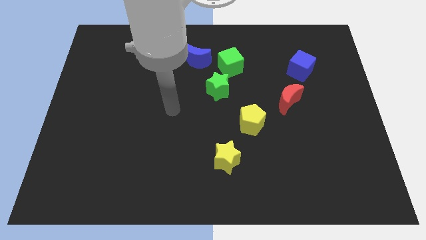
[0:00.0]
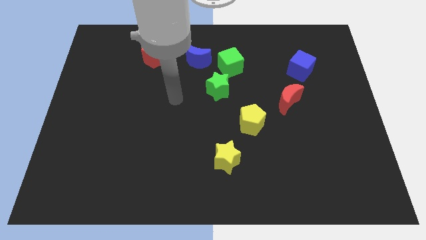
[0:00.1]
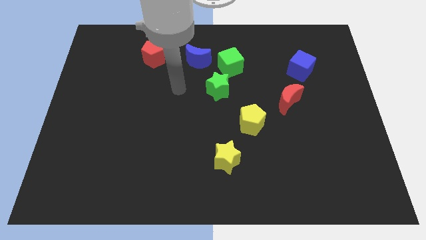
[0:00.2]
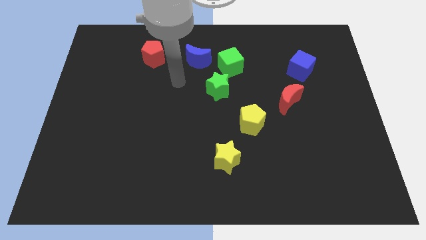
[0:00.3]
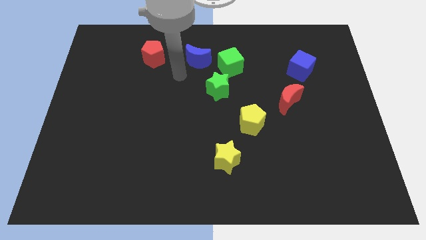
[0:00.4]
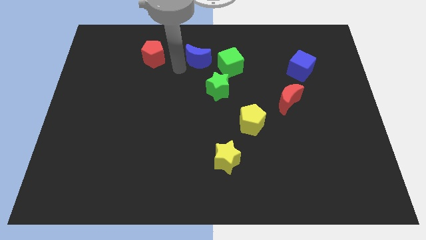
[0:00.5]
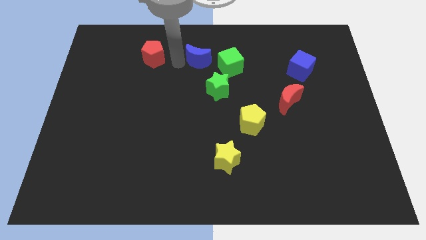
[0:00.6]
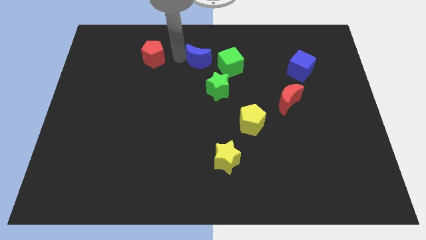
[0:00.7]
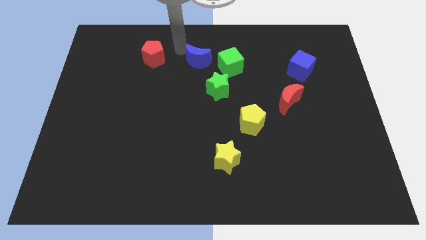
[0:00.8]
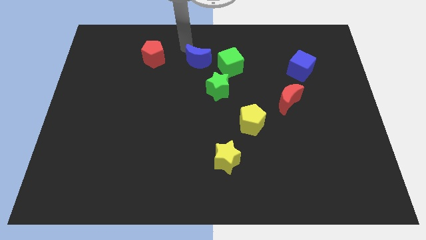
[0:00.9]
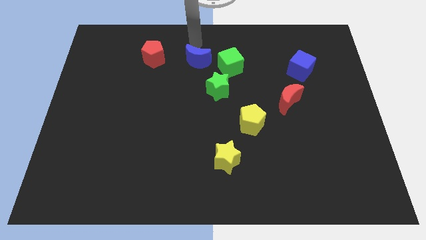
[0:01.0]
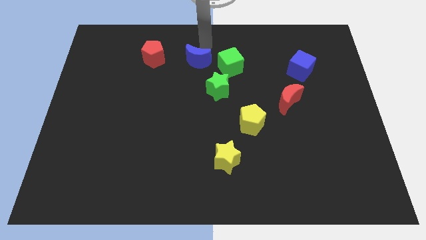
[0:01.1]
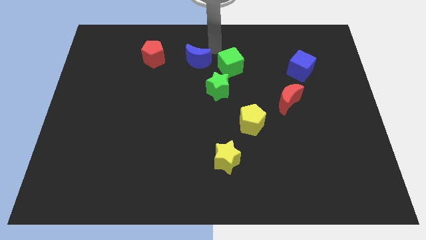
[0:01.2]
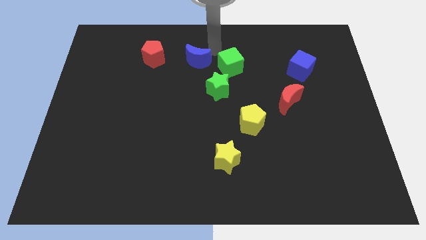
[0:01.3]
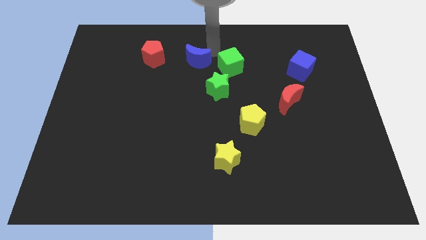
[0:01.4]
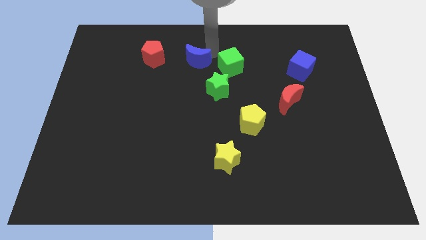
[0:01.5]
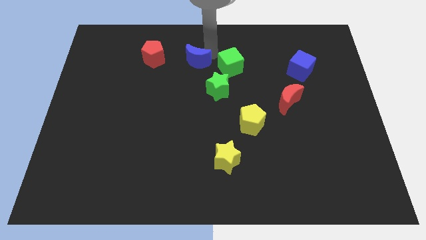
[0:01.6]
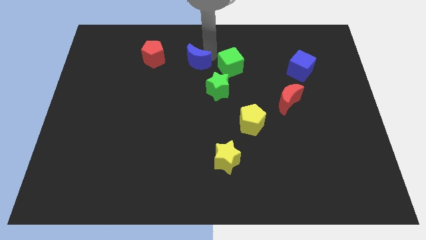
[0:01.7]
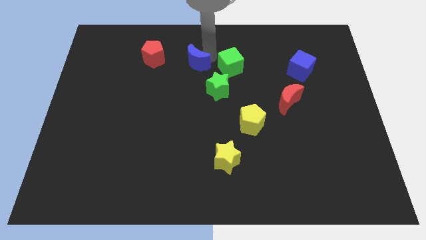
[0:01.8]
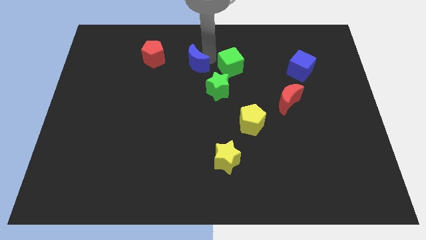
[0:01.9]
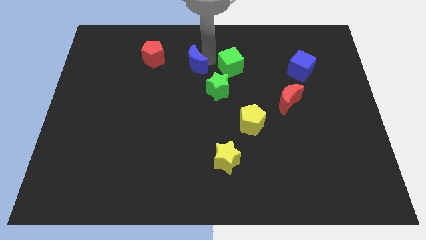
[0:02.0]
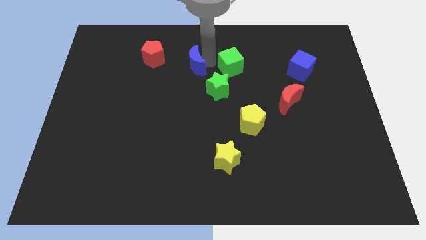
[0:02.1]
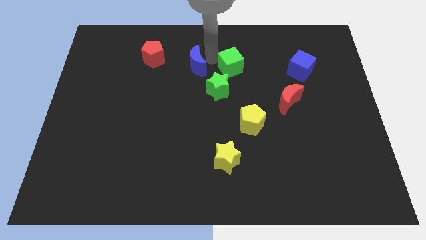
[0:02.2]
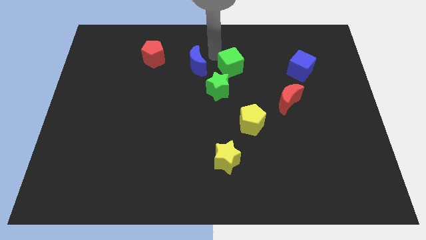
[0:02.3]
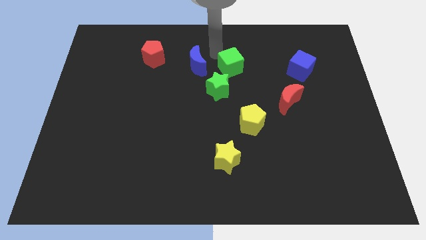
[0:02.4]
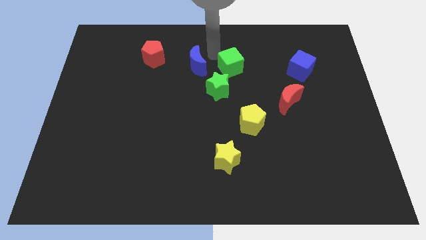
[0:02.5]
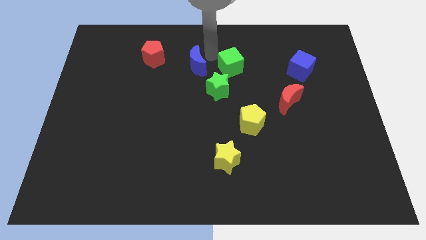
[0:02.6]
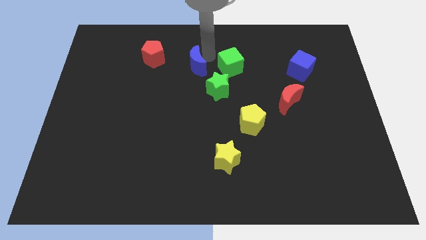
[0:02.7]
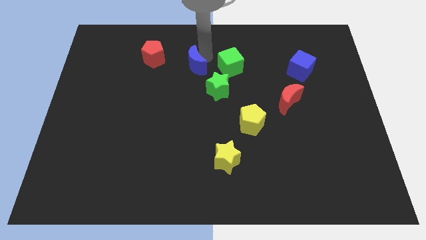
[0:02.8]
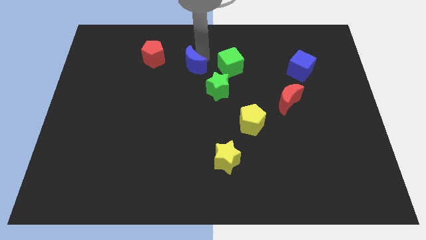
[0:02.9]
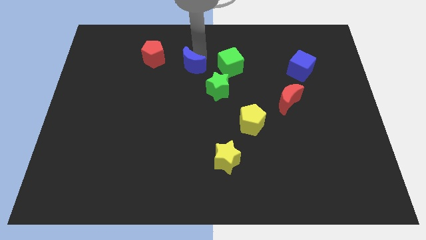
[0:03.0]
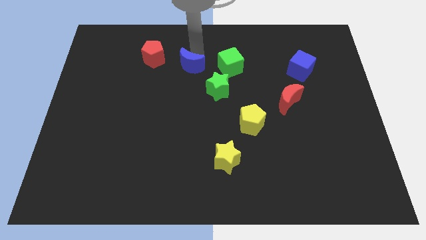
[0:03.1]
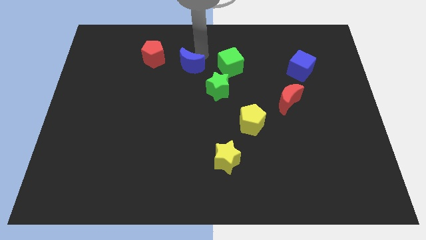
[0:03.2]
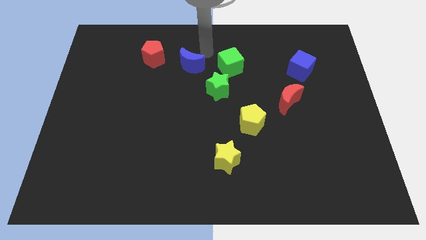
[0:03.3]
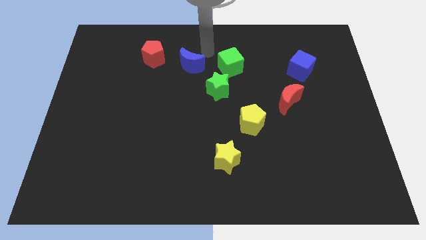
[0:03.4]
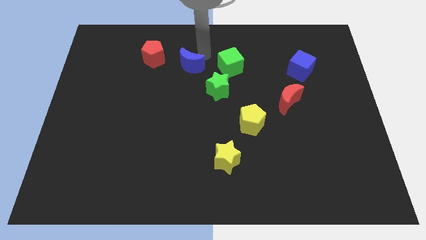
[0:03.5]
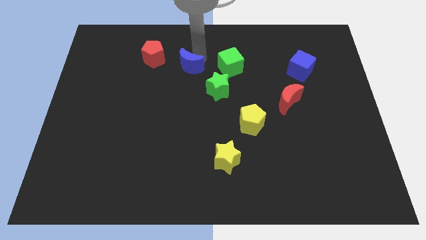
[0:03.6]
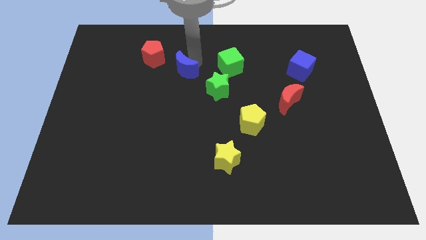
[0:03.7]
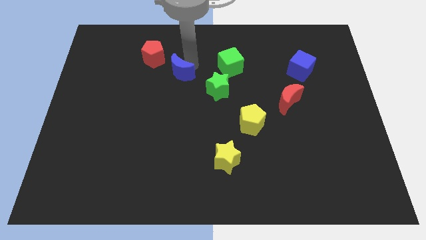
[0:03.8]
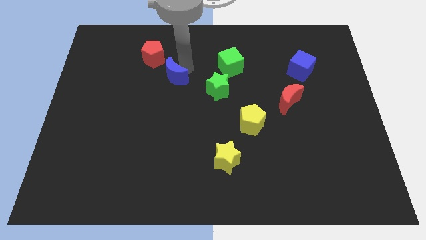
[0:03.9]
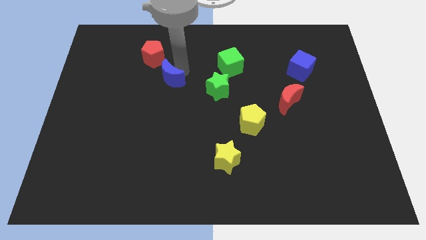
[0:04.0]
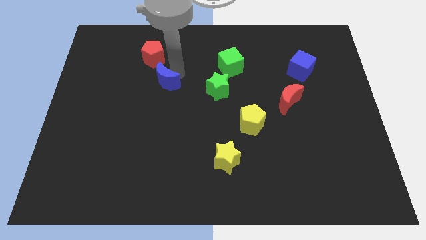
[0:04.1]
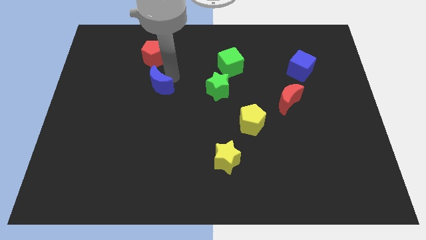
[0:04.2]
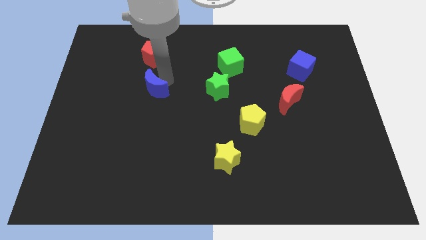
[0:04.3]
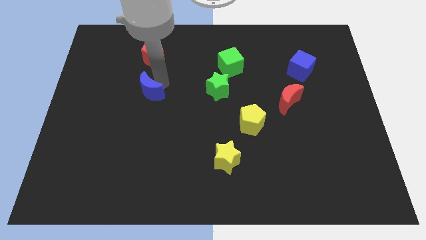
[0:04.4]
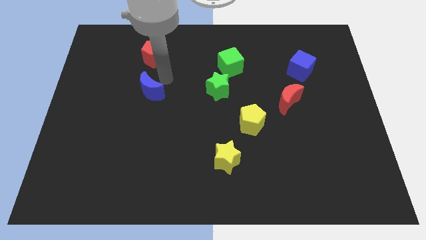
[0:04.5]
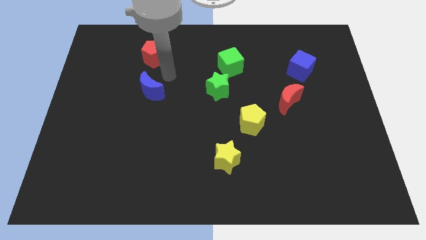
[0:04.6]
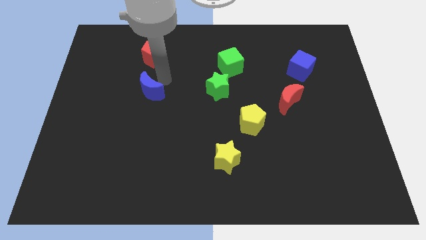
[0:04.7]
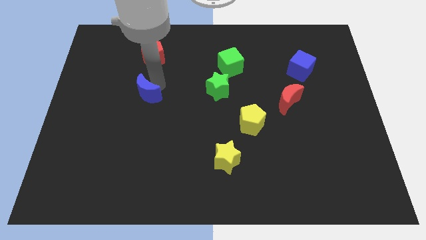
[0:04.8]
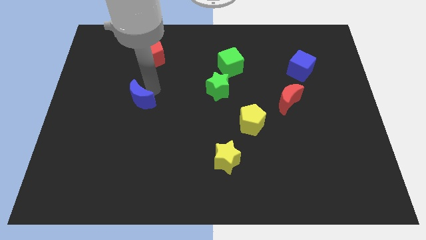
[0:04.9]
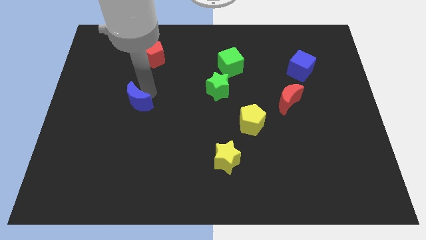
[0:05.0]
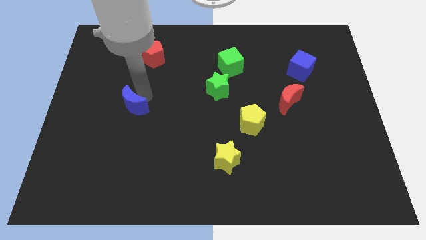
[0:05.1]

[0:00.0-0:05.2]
push the blue moon downwards and to the left diagonally

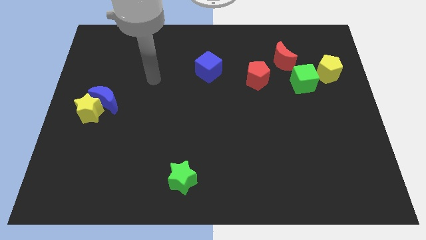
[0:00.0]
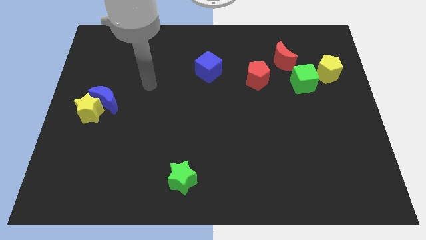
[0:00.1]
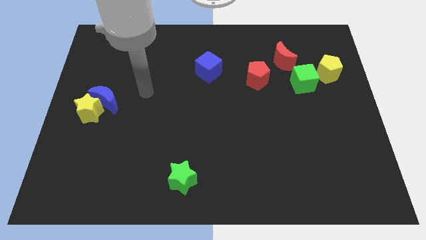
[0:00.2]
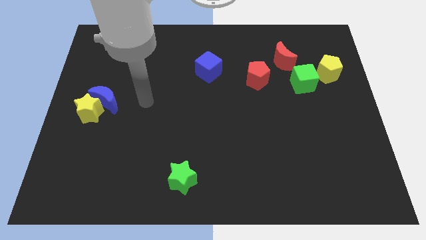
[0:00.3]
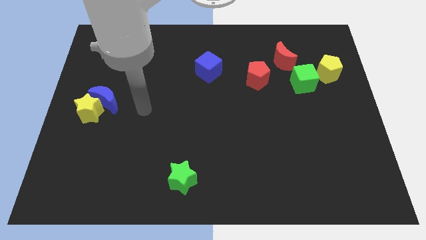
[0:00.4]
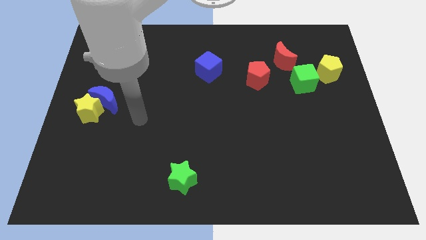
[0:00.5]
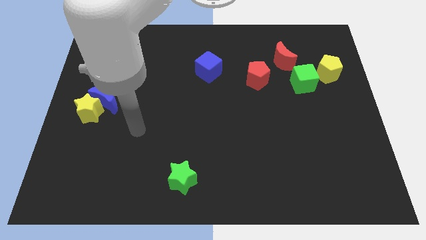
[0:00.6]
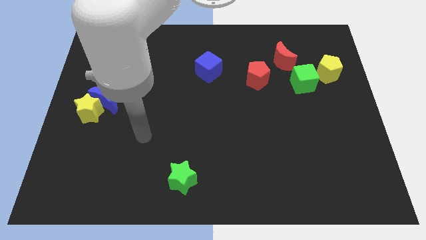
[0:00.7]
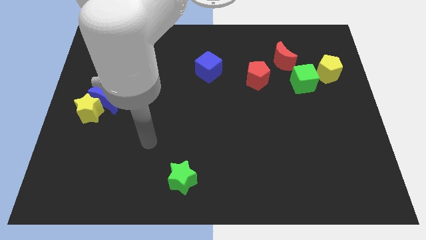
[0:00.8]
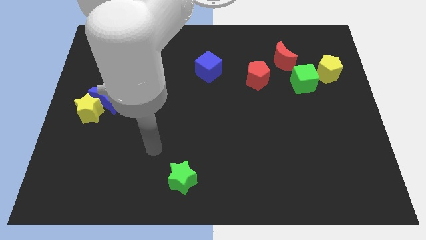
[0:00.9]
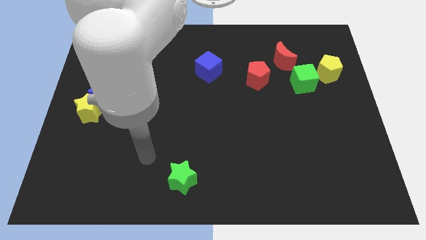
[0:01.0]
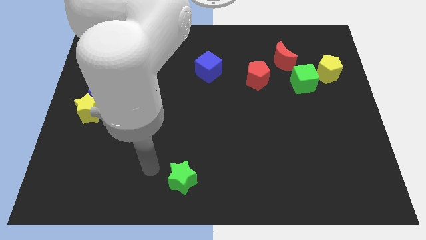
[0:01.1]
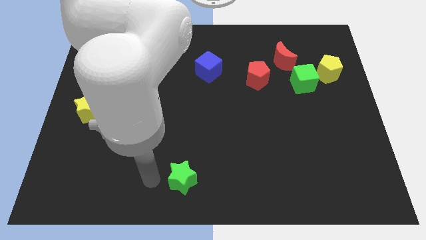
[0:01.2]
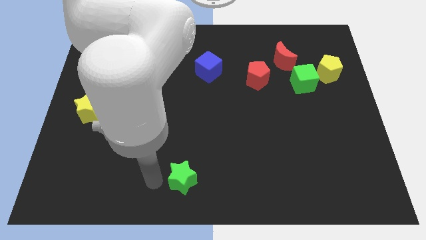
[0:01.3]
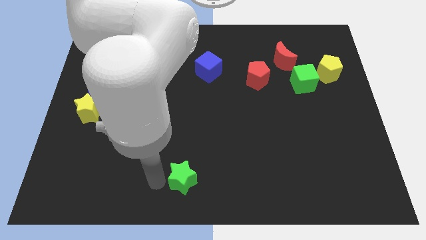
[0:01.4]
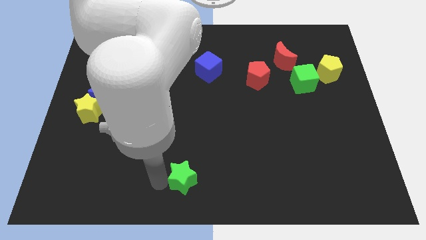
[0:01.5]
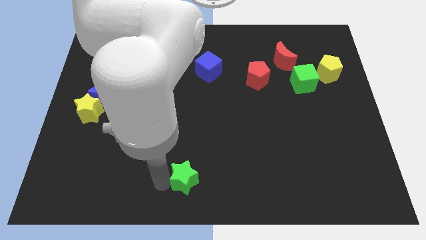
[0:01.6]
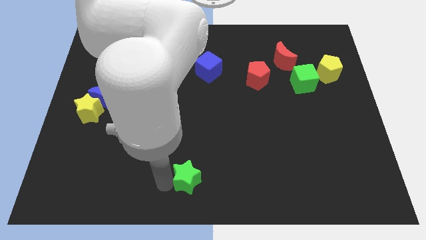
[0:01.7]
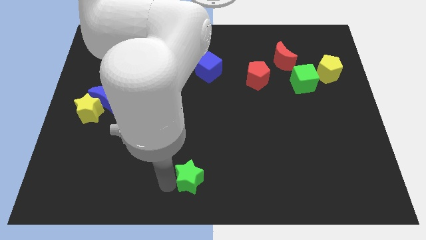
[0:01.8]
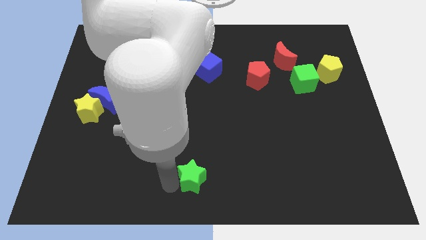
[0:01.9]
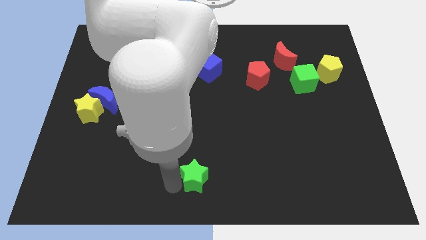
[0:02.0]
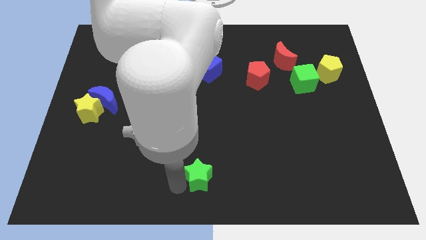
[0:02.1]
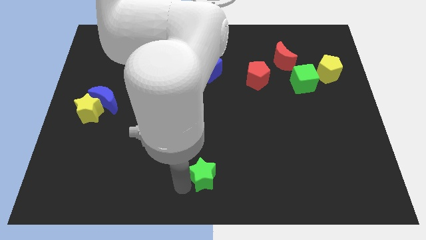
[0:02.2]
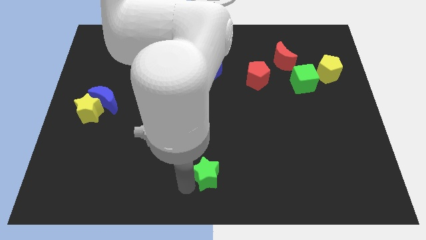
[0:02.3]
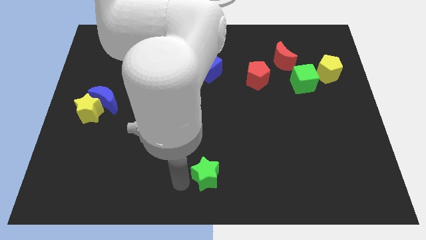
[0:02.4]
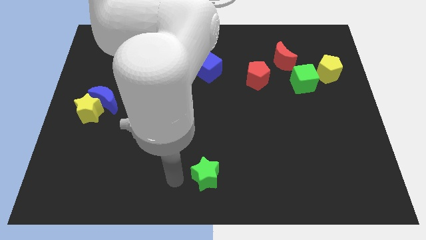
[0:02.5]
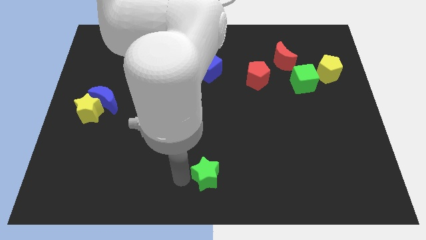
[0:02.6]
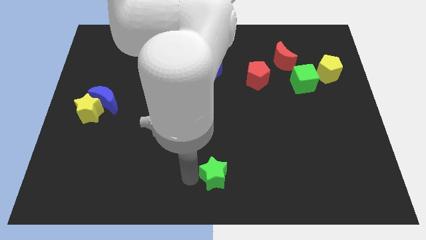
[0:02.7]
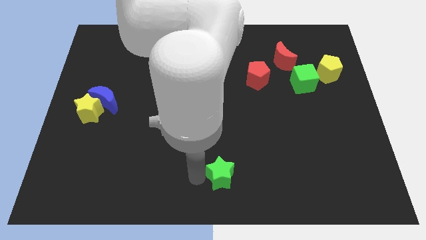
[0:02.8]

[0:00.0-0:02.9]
slide the green star to the right somewhat
